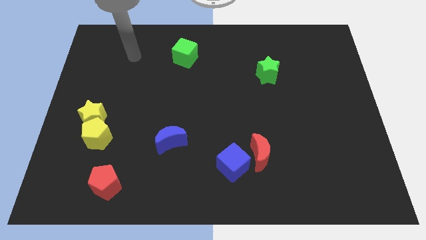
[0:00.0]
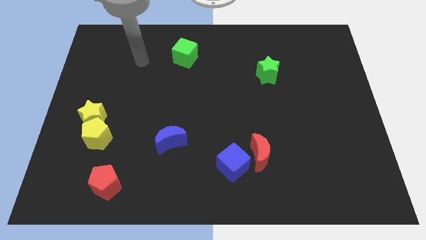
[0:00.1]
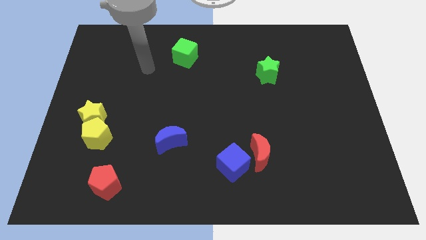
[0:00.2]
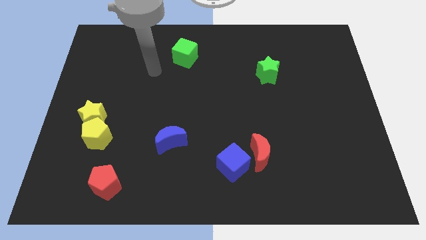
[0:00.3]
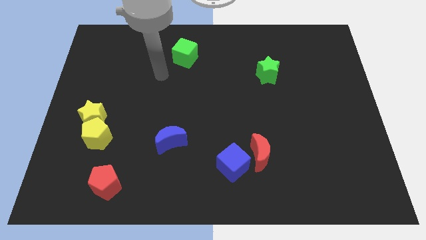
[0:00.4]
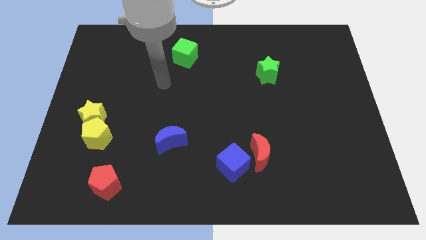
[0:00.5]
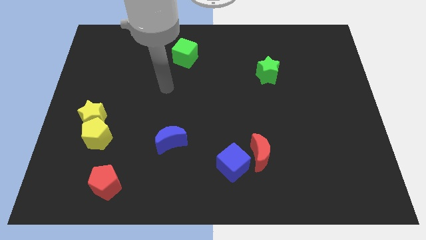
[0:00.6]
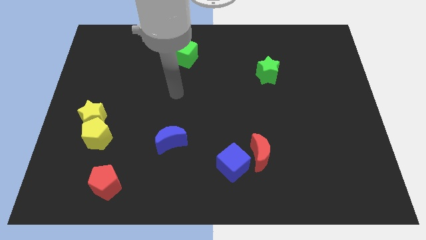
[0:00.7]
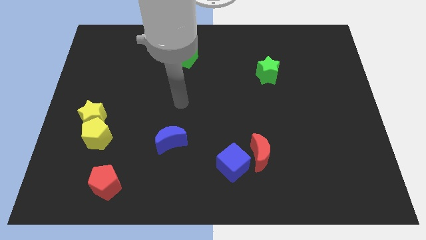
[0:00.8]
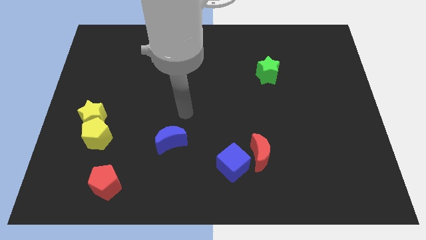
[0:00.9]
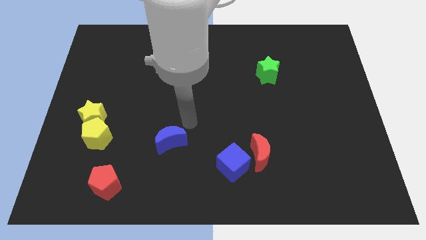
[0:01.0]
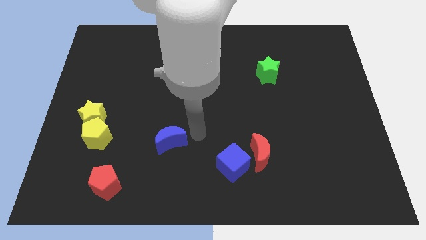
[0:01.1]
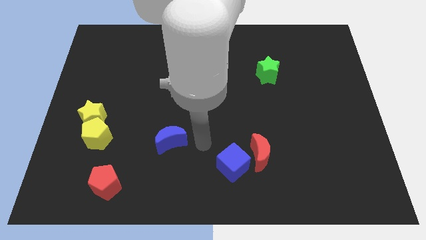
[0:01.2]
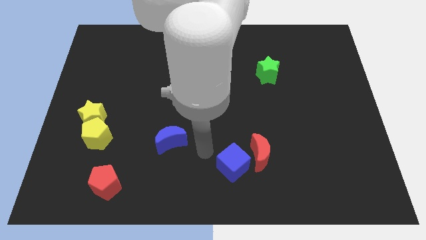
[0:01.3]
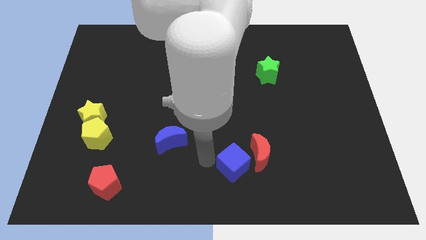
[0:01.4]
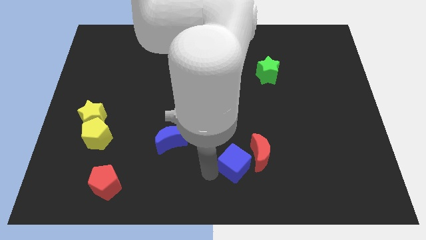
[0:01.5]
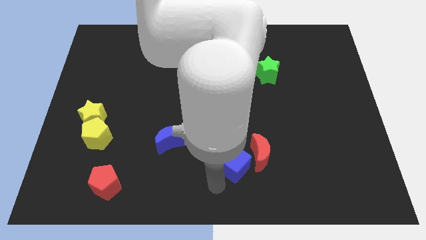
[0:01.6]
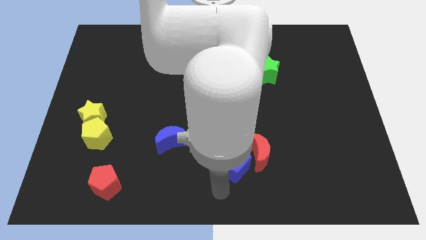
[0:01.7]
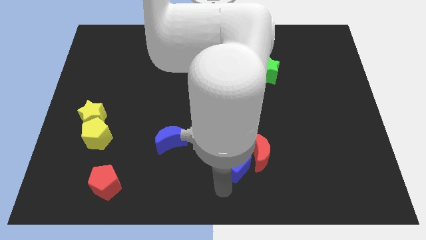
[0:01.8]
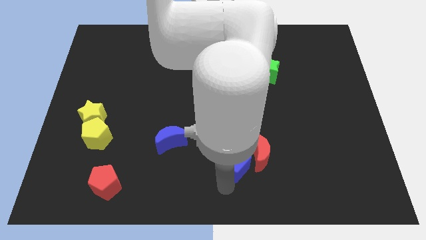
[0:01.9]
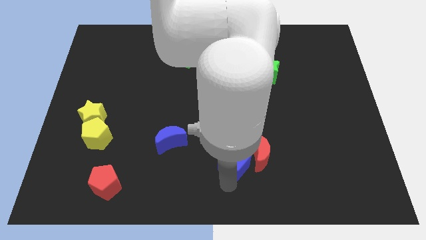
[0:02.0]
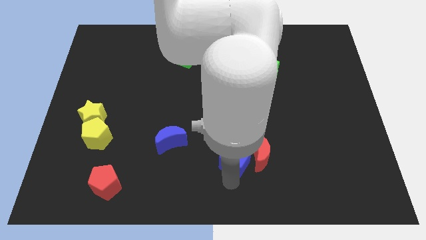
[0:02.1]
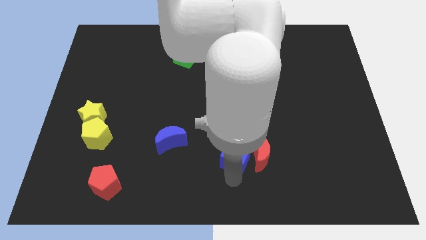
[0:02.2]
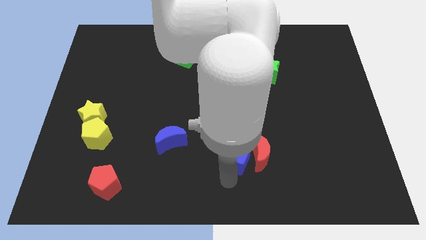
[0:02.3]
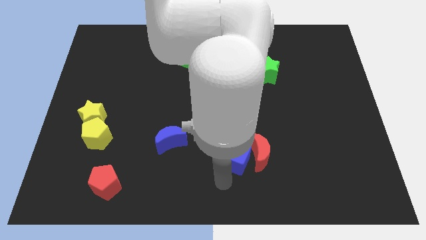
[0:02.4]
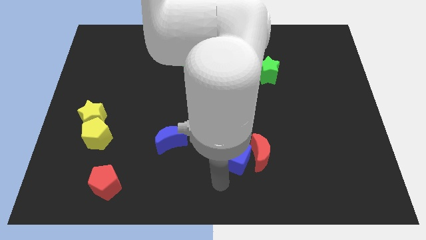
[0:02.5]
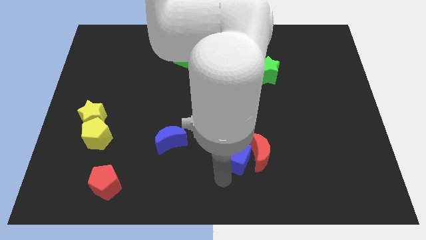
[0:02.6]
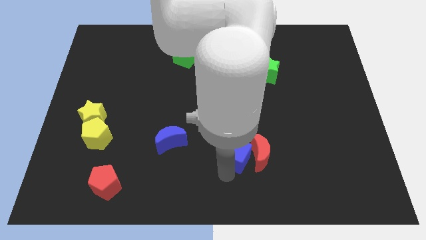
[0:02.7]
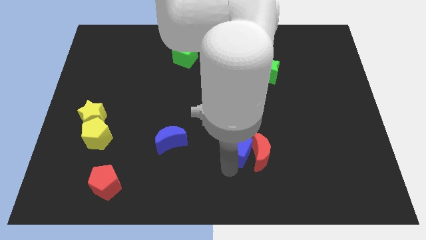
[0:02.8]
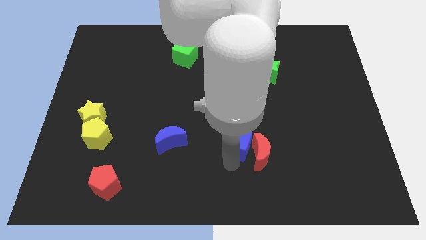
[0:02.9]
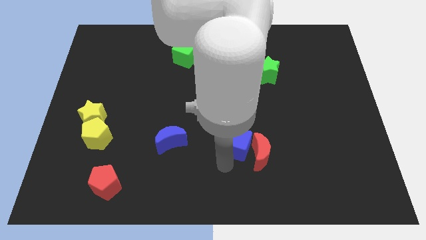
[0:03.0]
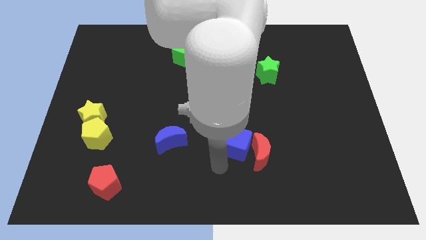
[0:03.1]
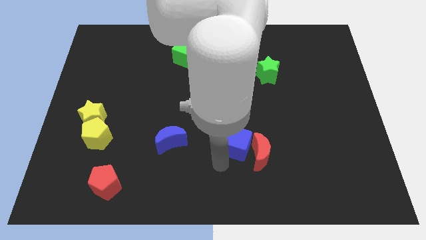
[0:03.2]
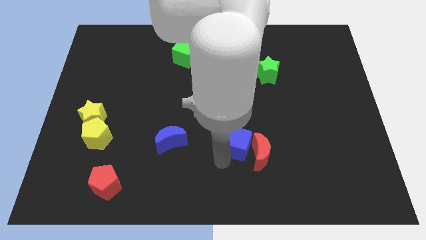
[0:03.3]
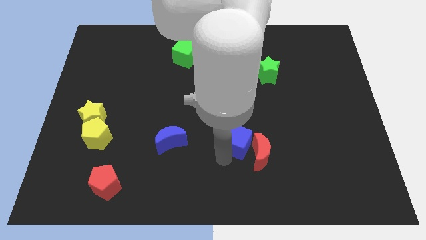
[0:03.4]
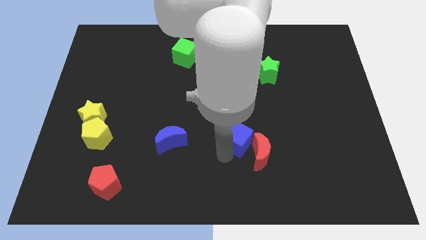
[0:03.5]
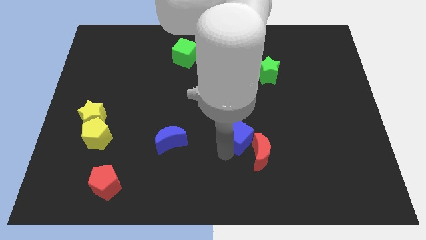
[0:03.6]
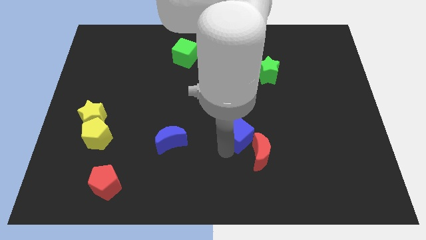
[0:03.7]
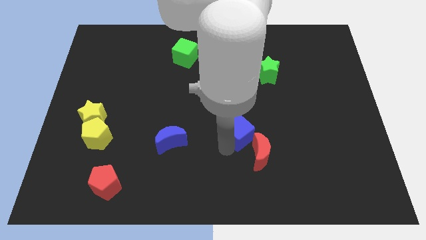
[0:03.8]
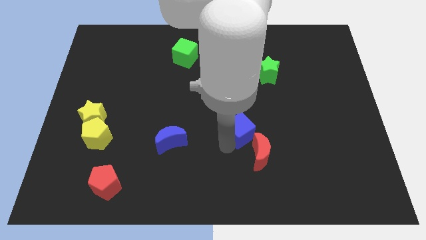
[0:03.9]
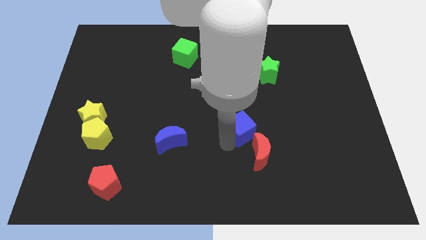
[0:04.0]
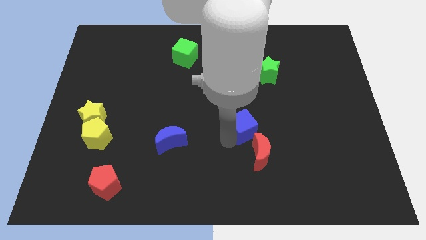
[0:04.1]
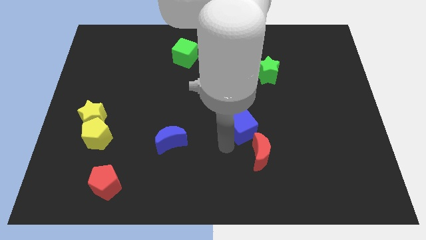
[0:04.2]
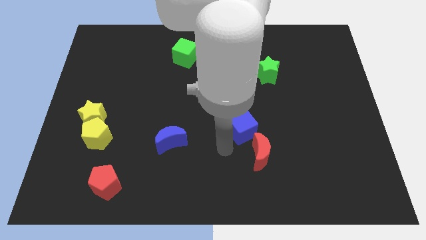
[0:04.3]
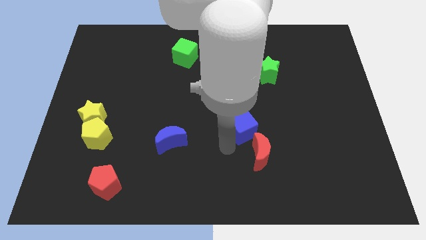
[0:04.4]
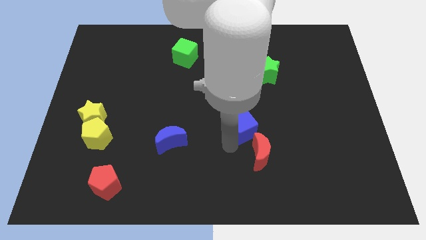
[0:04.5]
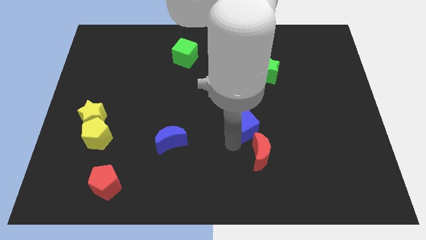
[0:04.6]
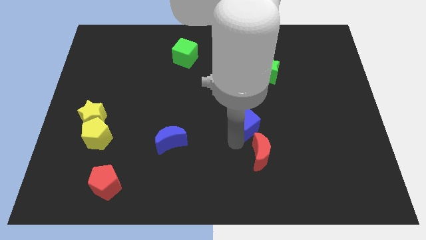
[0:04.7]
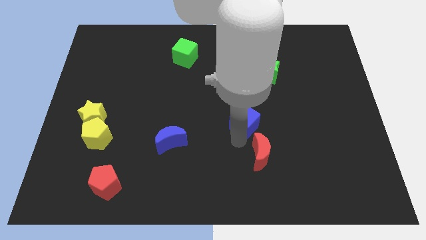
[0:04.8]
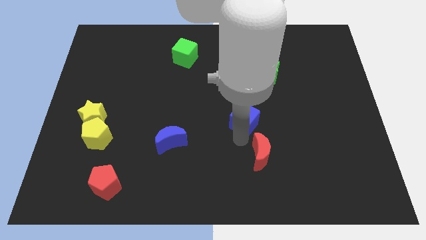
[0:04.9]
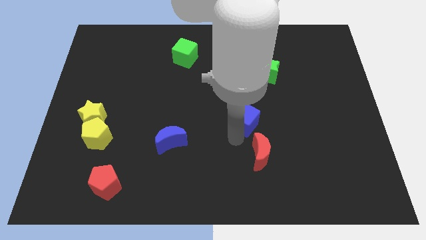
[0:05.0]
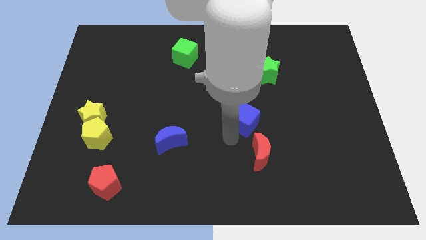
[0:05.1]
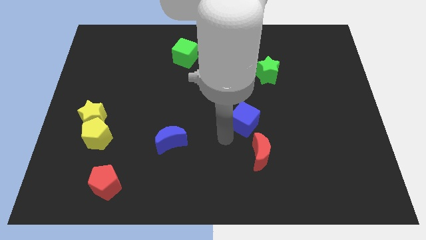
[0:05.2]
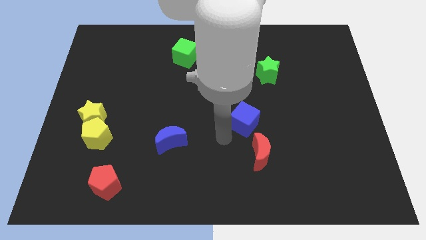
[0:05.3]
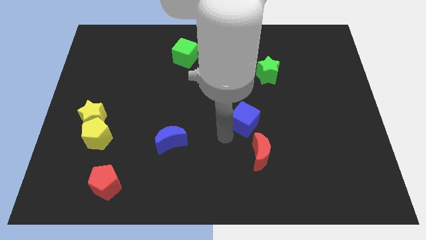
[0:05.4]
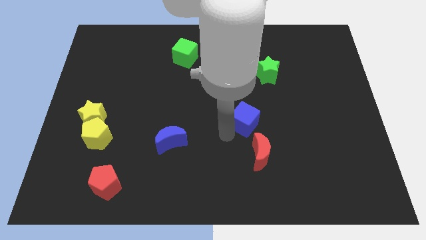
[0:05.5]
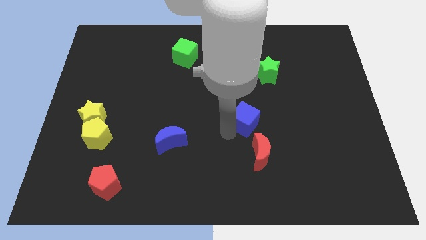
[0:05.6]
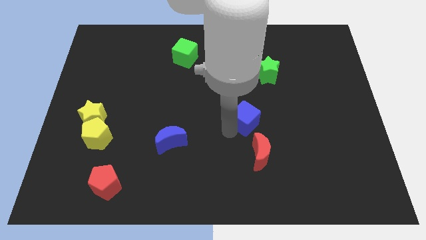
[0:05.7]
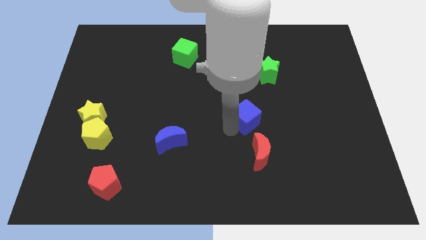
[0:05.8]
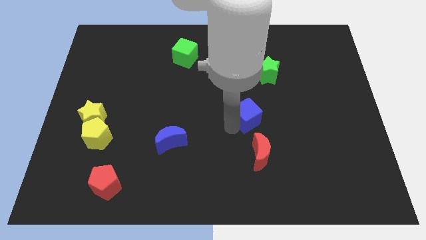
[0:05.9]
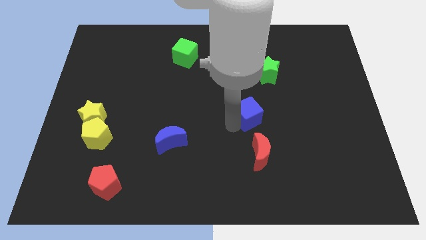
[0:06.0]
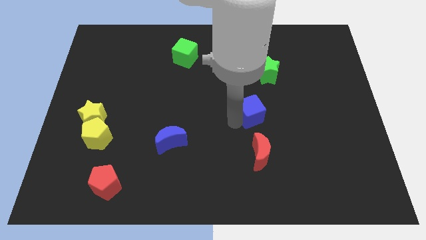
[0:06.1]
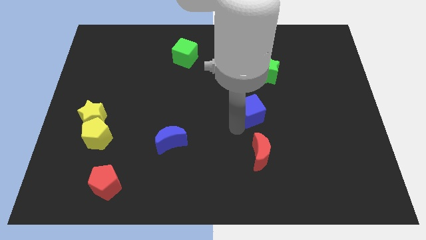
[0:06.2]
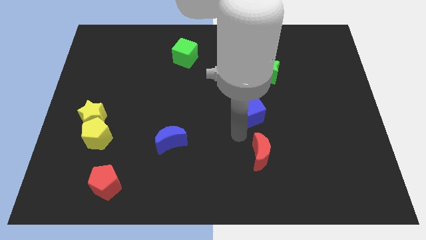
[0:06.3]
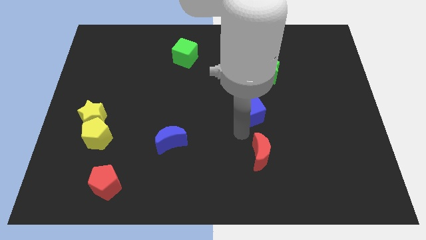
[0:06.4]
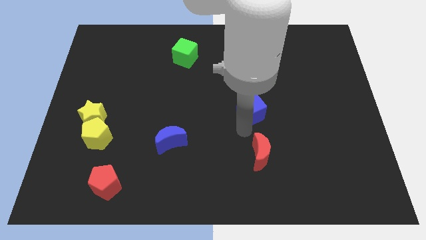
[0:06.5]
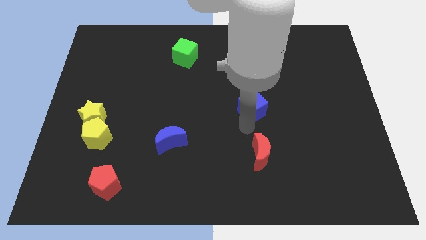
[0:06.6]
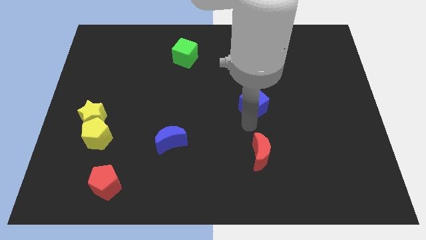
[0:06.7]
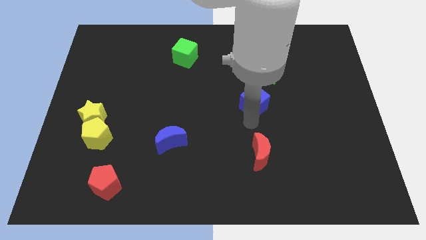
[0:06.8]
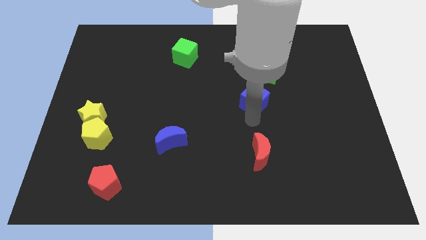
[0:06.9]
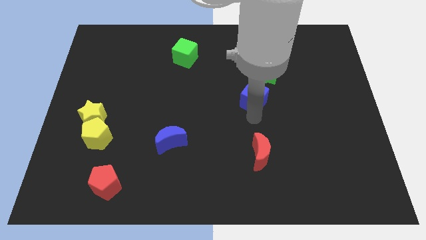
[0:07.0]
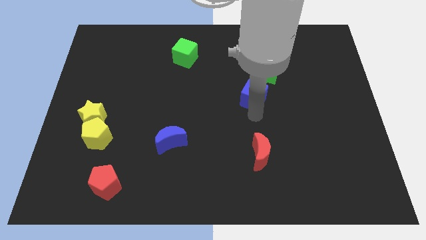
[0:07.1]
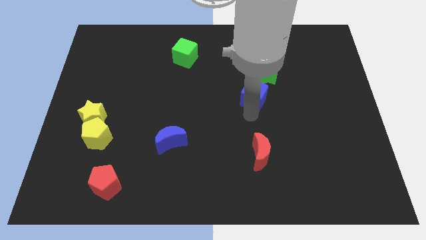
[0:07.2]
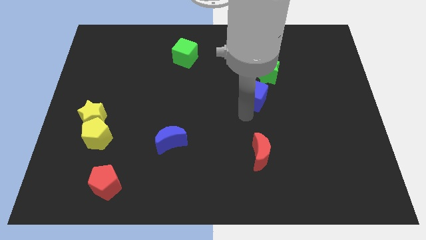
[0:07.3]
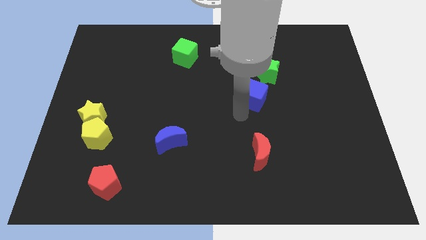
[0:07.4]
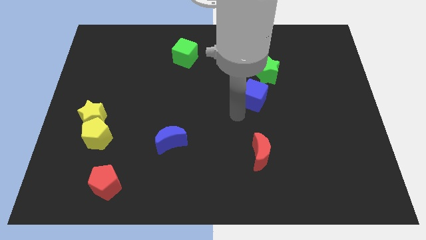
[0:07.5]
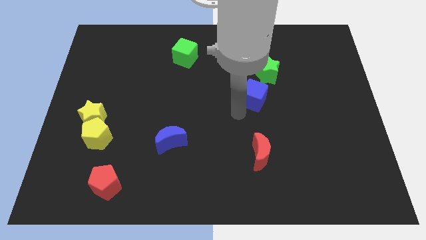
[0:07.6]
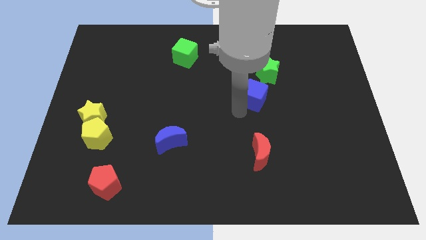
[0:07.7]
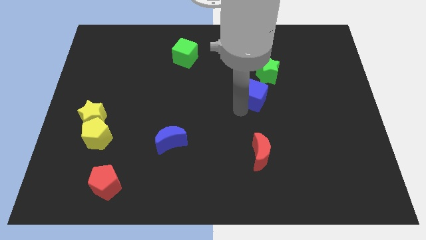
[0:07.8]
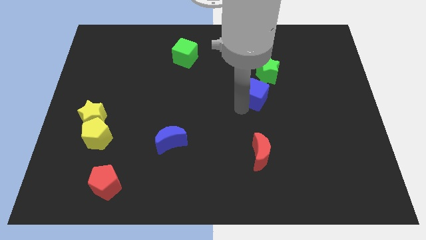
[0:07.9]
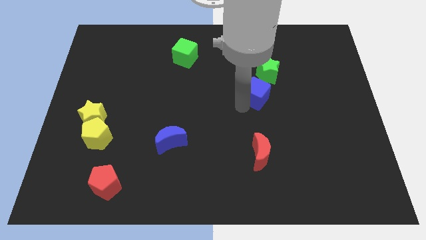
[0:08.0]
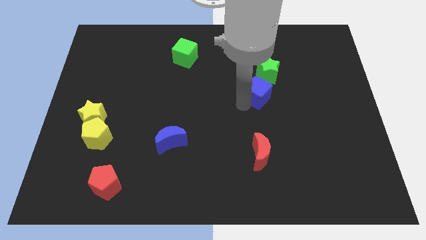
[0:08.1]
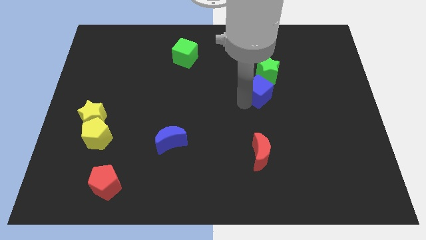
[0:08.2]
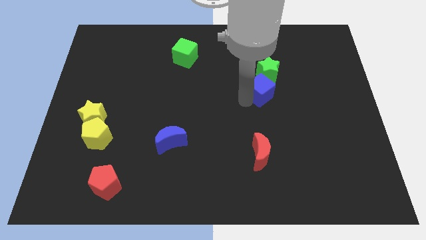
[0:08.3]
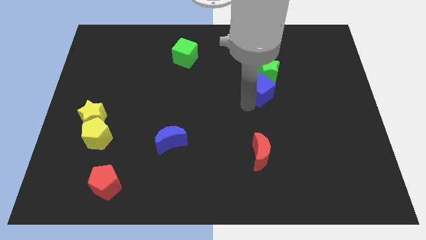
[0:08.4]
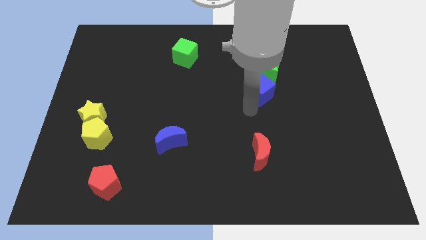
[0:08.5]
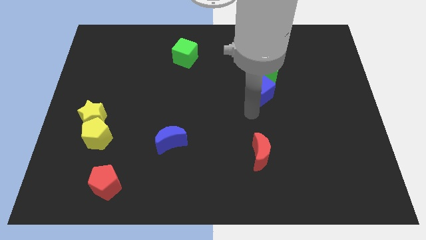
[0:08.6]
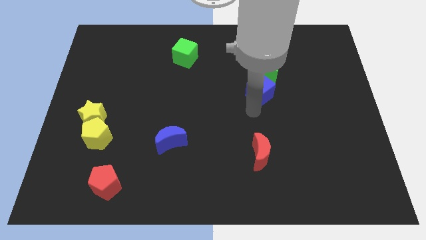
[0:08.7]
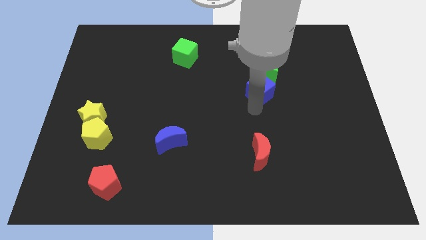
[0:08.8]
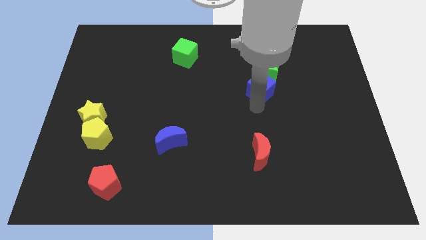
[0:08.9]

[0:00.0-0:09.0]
put the blue cube towards the green star
